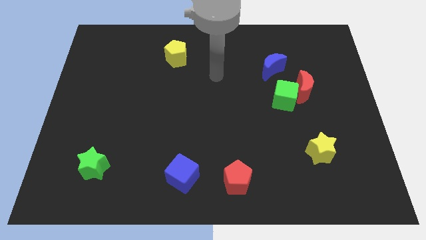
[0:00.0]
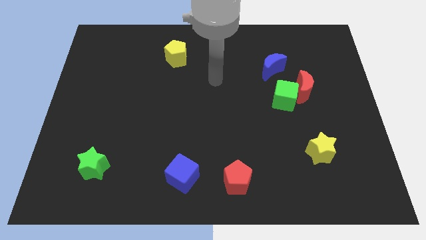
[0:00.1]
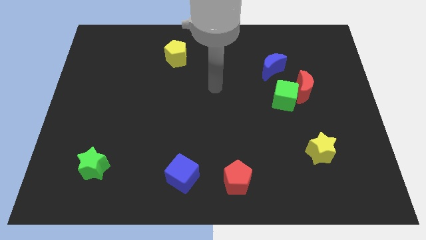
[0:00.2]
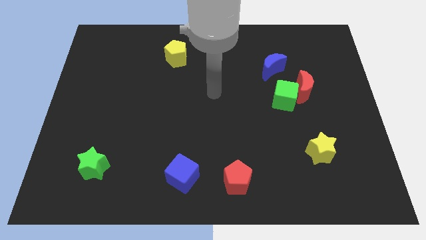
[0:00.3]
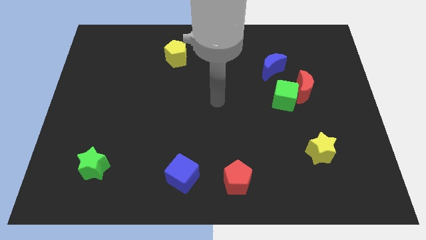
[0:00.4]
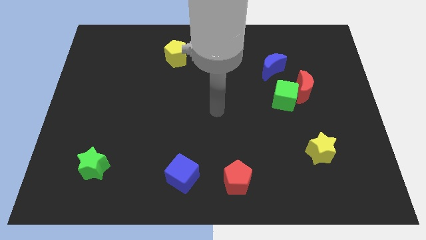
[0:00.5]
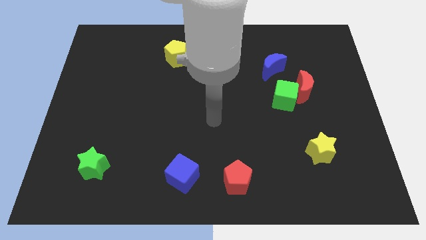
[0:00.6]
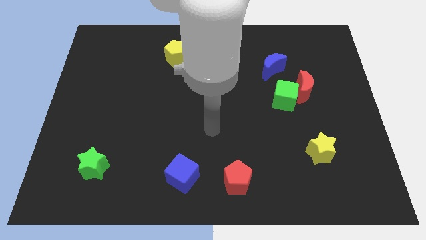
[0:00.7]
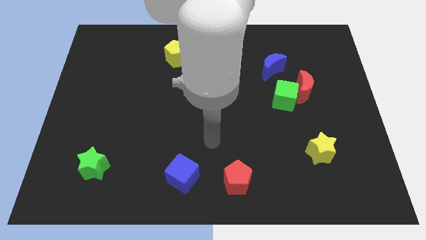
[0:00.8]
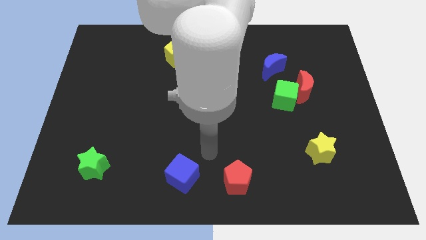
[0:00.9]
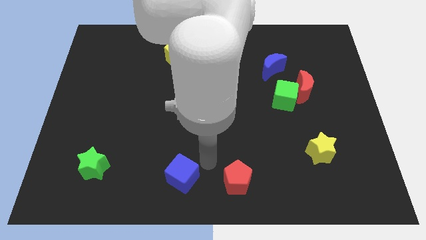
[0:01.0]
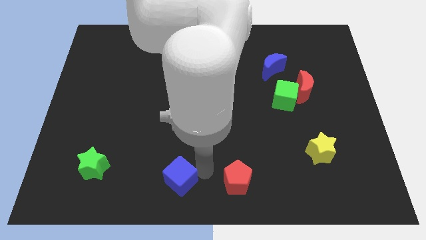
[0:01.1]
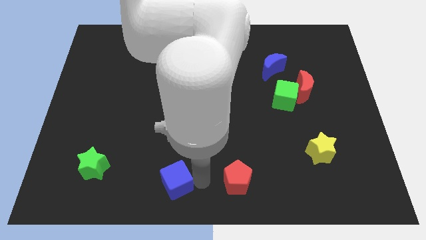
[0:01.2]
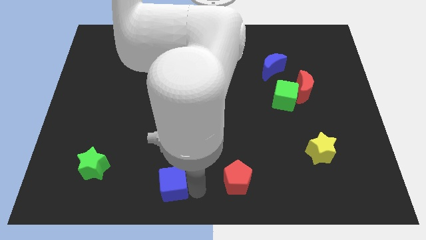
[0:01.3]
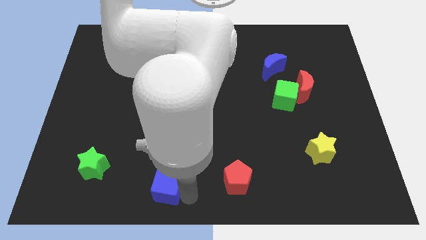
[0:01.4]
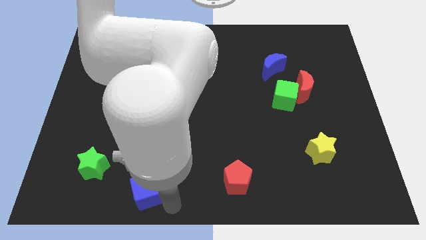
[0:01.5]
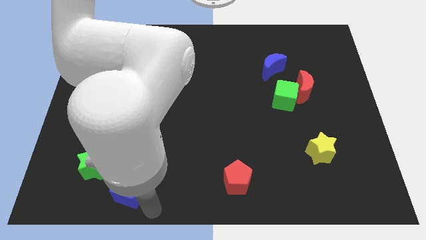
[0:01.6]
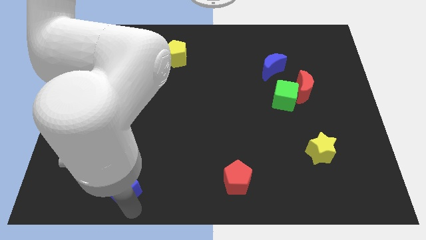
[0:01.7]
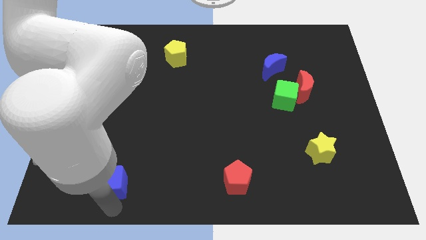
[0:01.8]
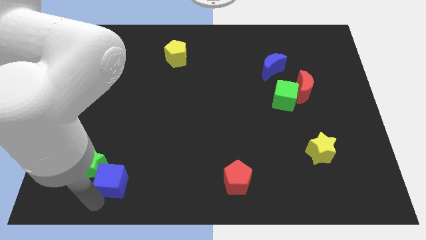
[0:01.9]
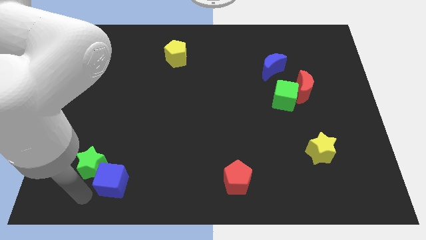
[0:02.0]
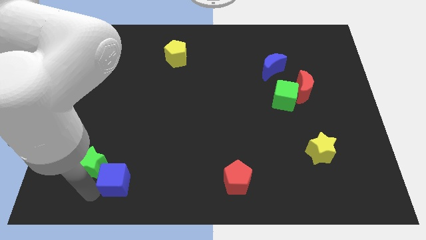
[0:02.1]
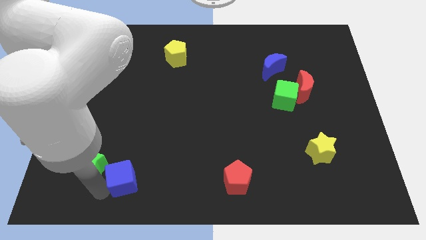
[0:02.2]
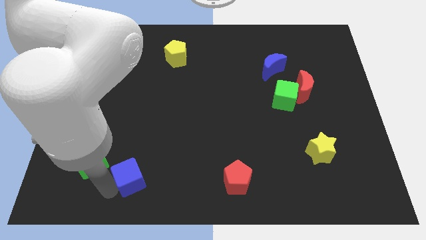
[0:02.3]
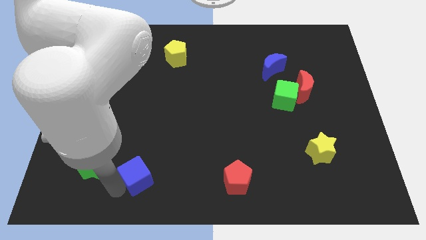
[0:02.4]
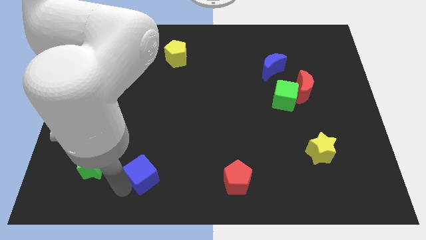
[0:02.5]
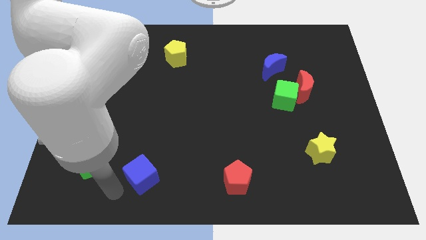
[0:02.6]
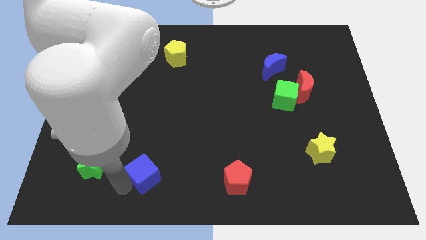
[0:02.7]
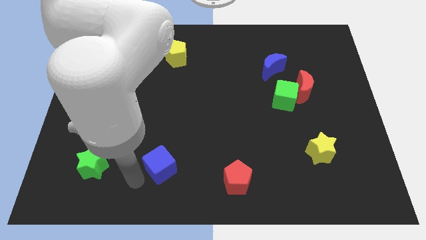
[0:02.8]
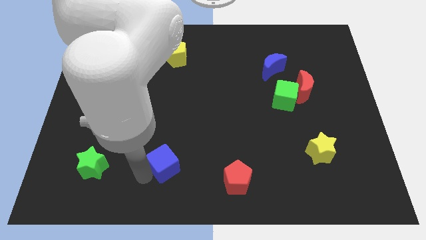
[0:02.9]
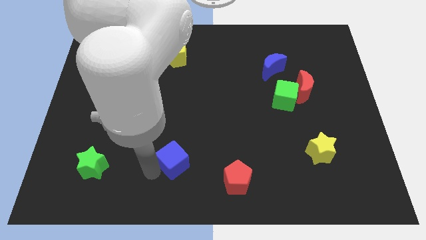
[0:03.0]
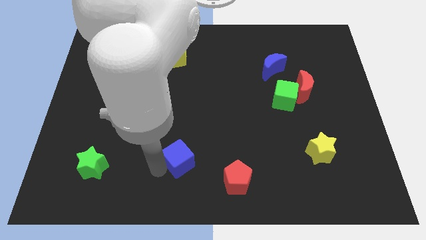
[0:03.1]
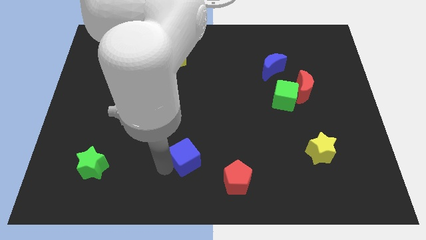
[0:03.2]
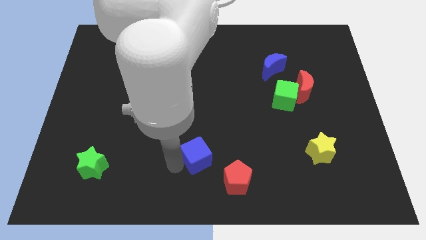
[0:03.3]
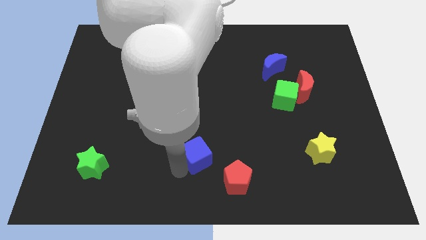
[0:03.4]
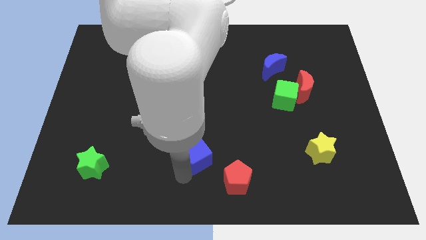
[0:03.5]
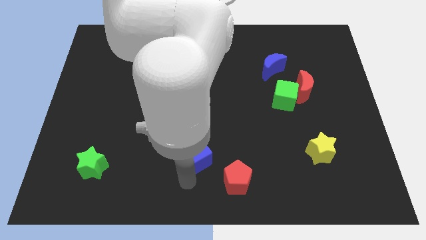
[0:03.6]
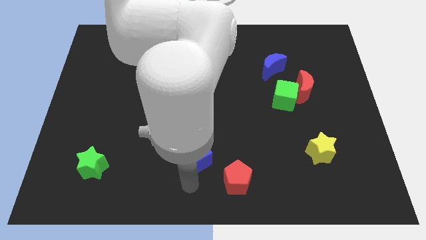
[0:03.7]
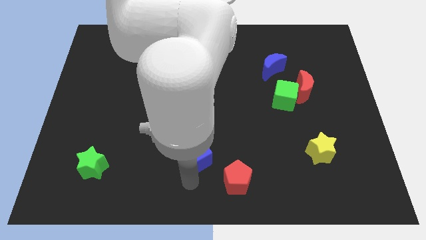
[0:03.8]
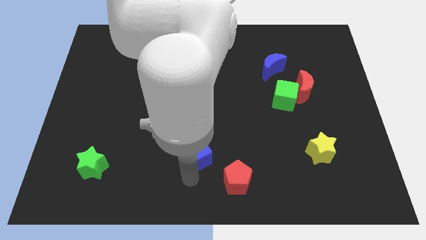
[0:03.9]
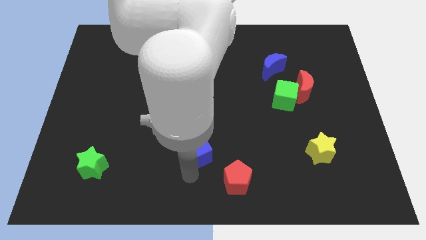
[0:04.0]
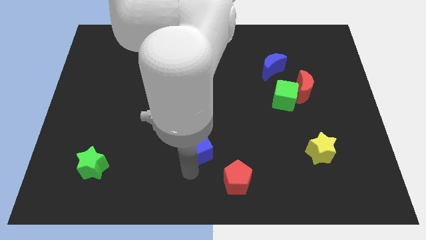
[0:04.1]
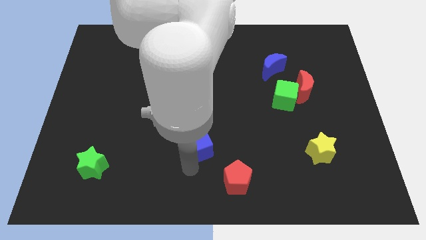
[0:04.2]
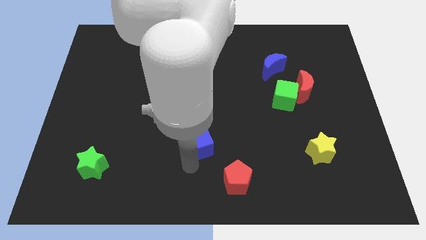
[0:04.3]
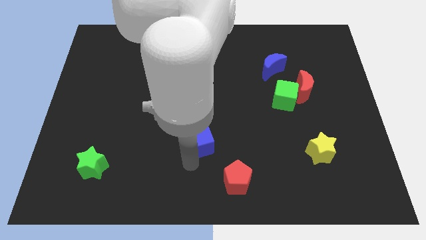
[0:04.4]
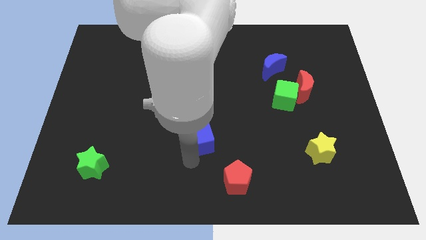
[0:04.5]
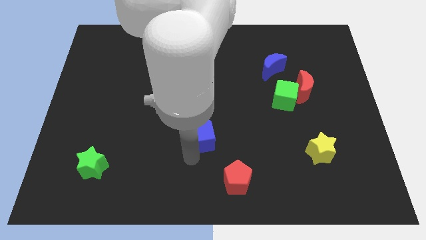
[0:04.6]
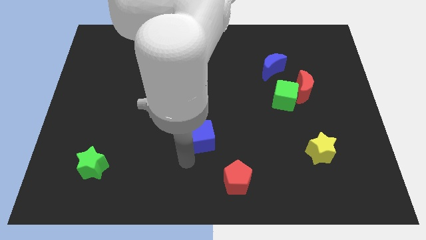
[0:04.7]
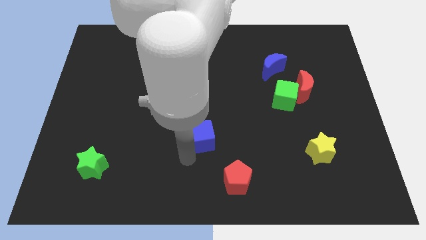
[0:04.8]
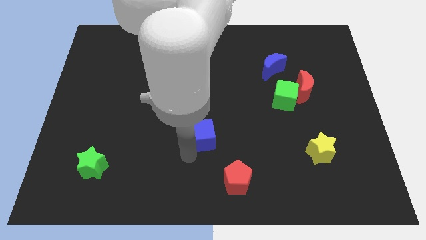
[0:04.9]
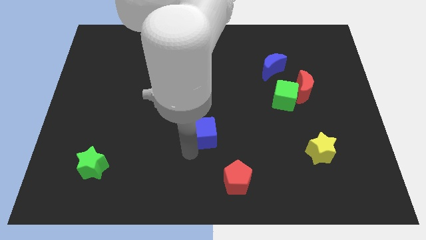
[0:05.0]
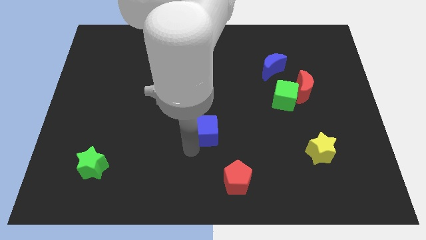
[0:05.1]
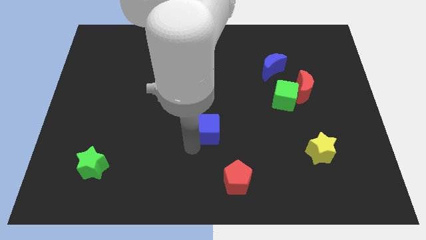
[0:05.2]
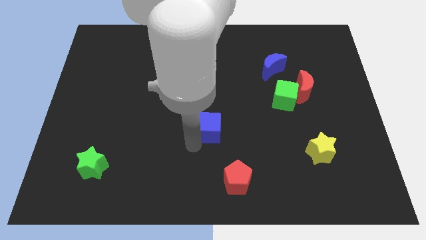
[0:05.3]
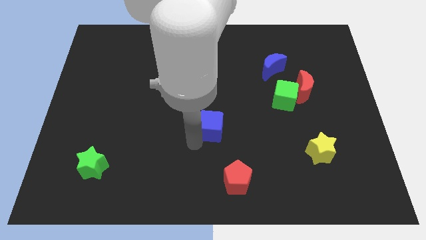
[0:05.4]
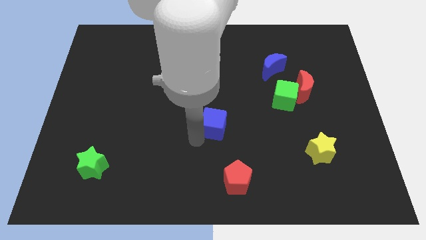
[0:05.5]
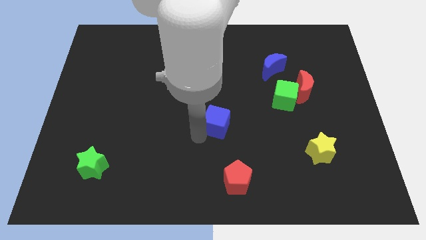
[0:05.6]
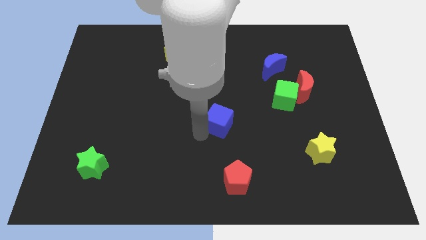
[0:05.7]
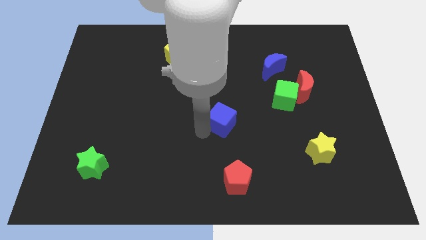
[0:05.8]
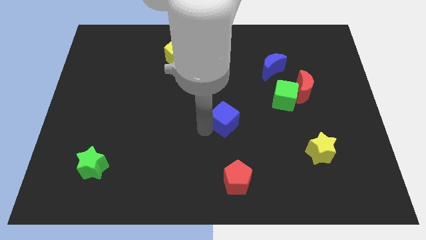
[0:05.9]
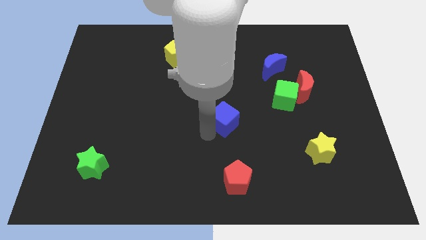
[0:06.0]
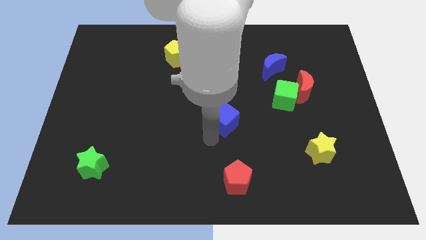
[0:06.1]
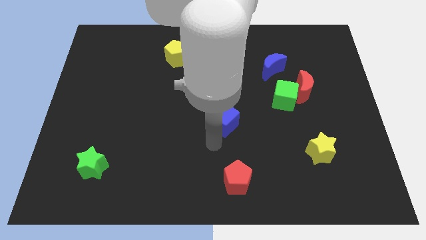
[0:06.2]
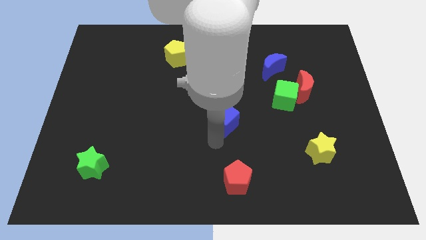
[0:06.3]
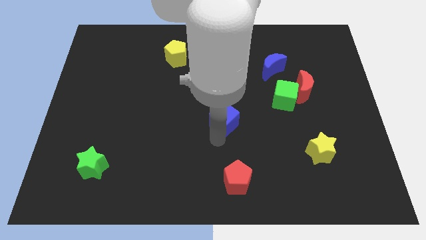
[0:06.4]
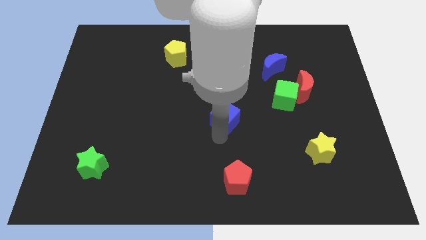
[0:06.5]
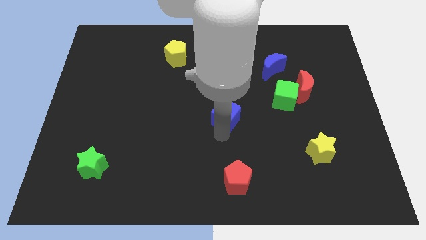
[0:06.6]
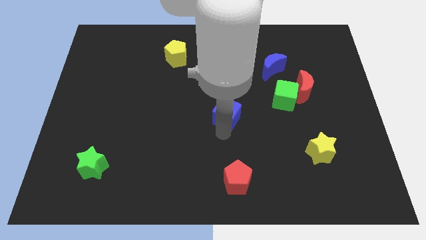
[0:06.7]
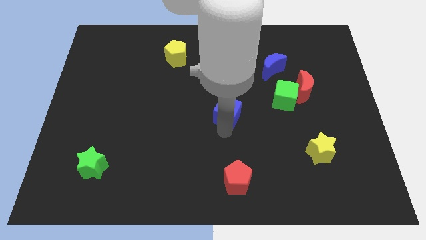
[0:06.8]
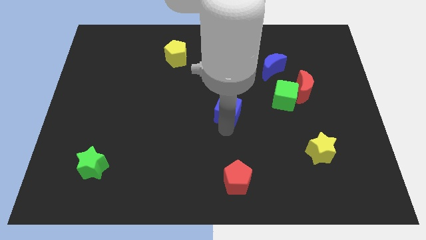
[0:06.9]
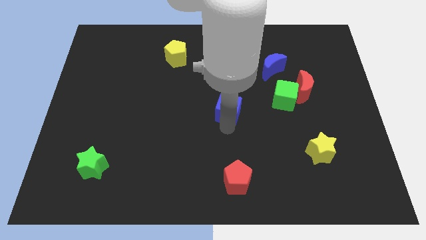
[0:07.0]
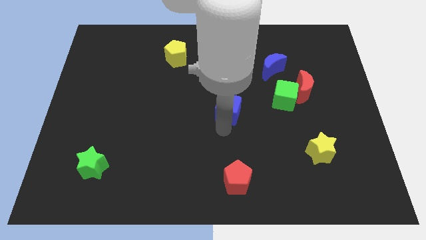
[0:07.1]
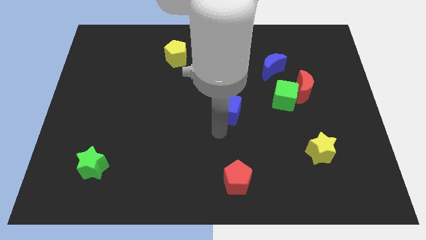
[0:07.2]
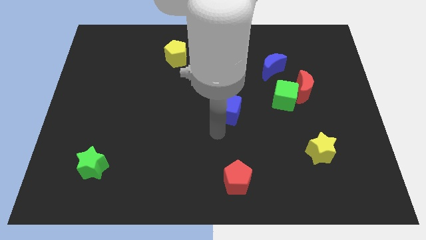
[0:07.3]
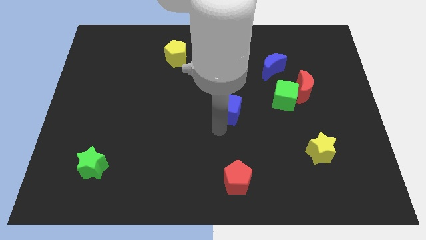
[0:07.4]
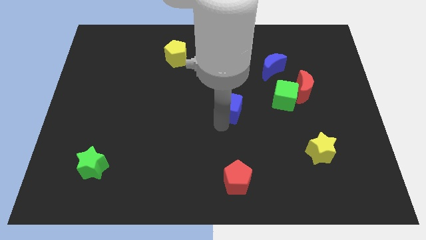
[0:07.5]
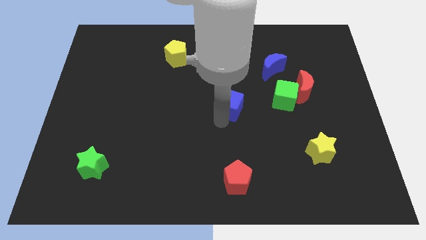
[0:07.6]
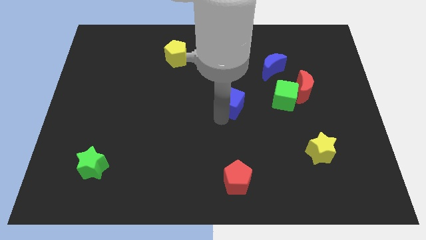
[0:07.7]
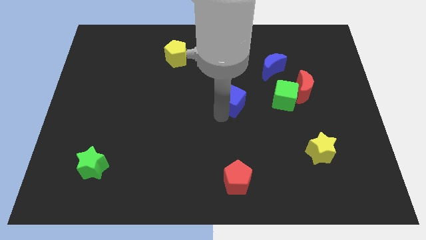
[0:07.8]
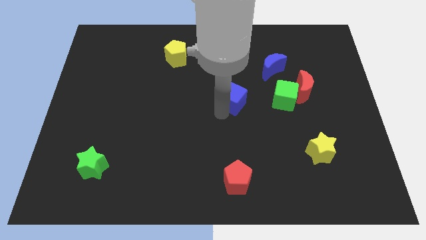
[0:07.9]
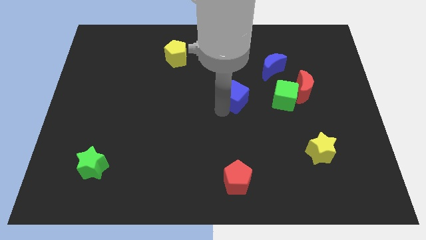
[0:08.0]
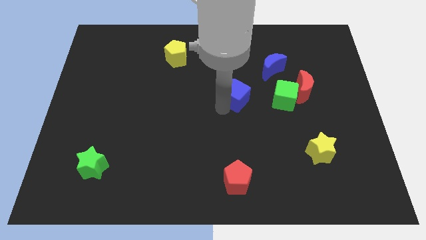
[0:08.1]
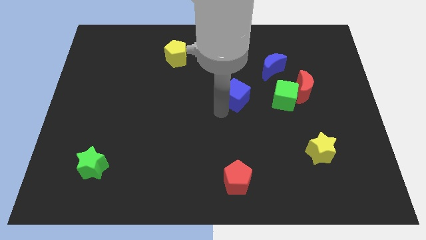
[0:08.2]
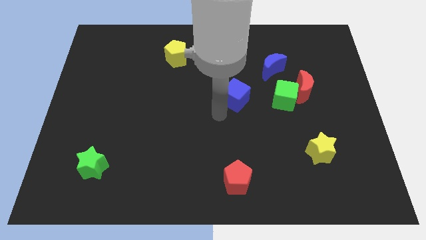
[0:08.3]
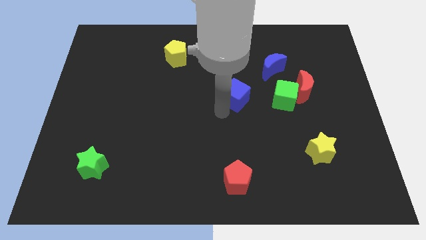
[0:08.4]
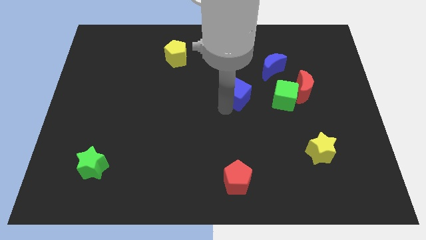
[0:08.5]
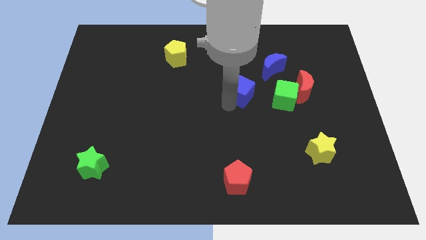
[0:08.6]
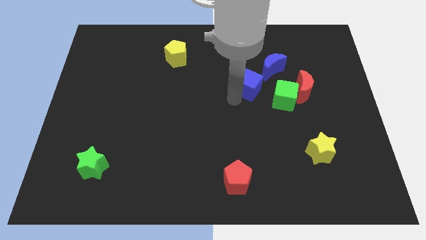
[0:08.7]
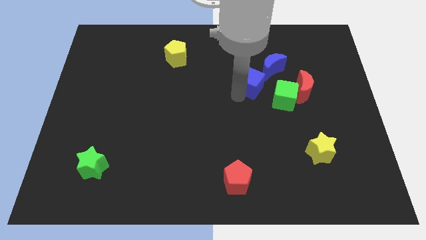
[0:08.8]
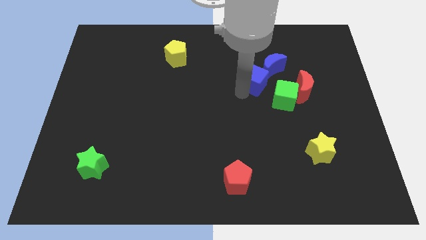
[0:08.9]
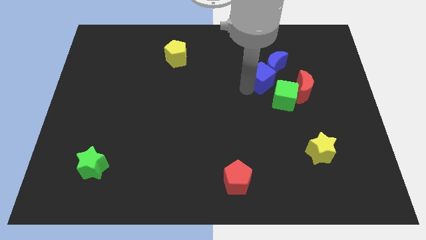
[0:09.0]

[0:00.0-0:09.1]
push the blue cube close to the blue moon
